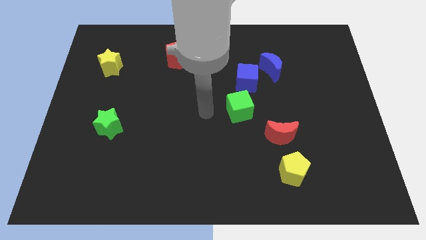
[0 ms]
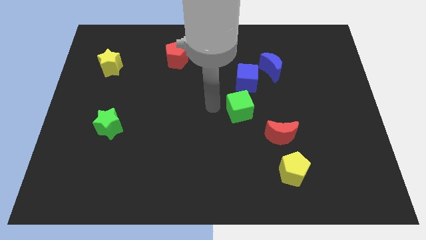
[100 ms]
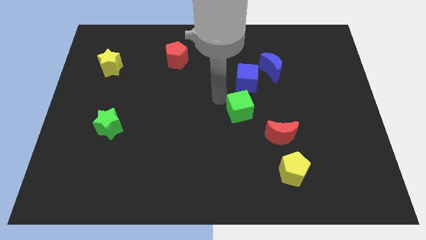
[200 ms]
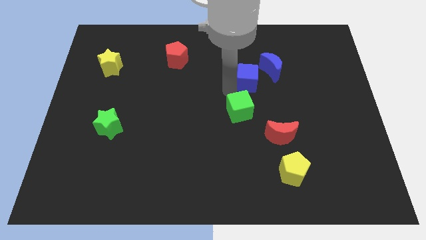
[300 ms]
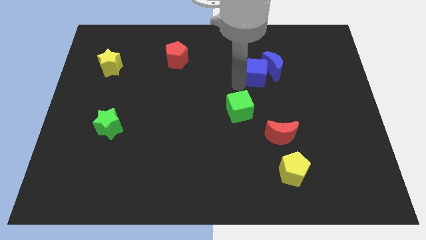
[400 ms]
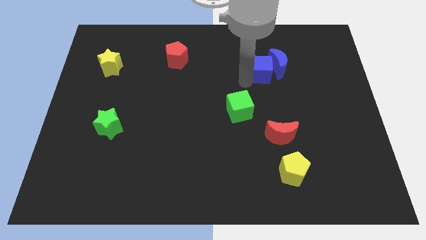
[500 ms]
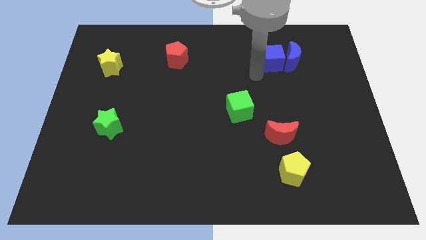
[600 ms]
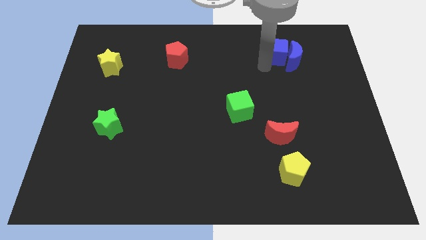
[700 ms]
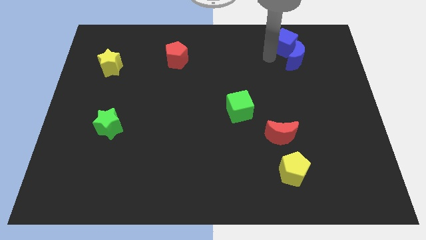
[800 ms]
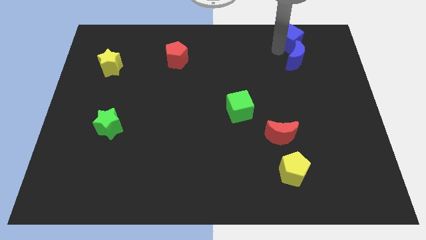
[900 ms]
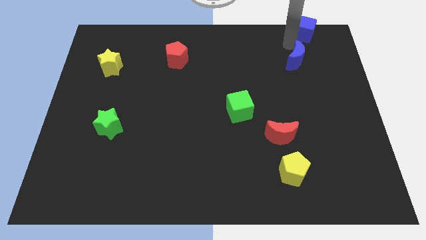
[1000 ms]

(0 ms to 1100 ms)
move the blue moon away from the blue cube

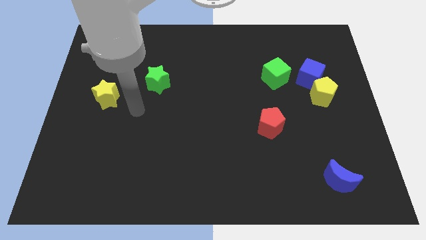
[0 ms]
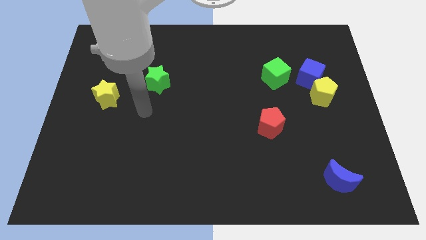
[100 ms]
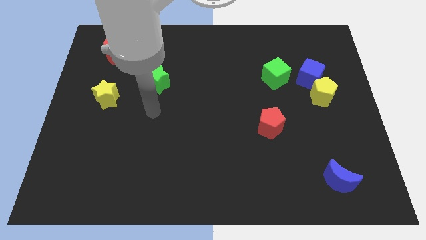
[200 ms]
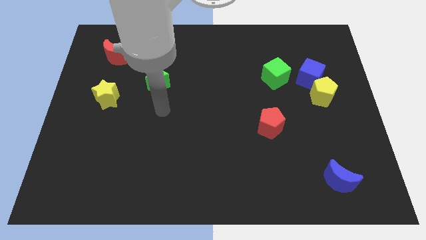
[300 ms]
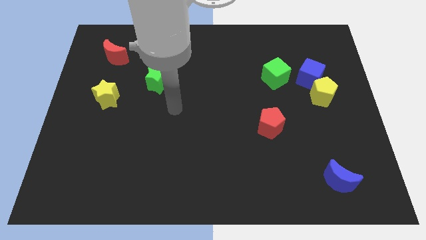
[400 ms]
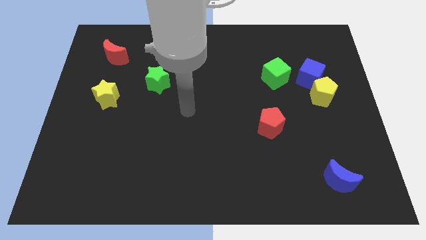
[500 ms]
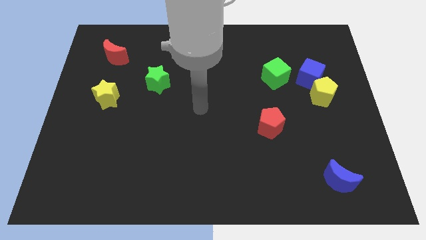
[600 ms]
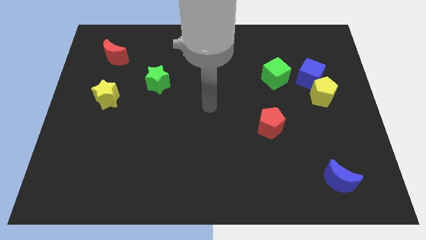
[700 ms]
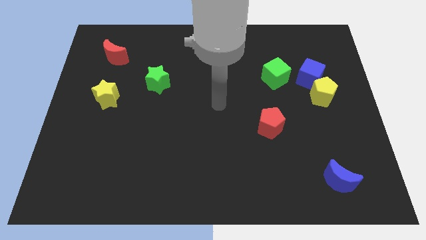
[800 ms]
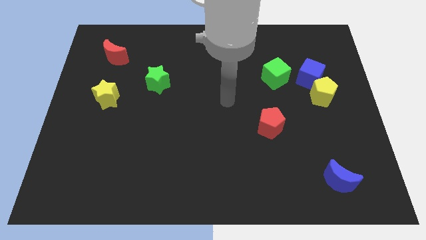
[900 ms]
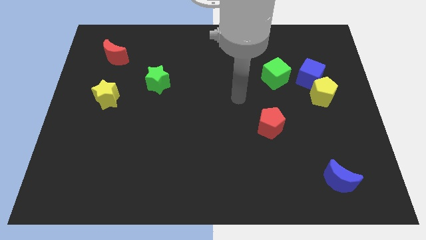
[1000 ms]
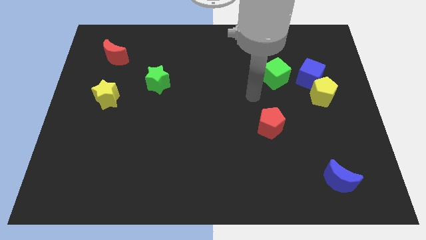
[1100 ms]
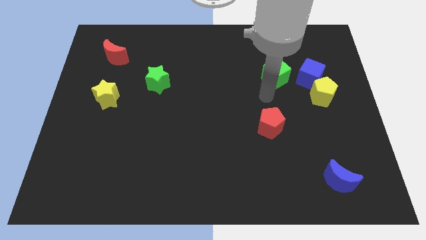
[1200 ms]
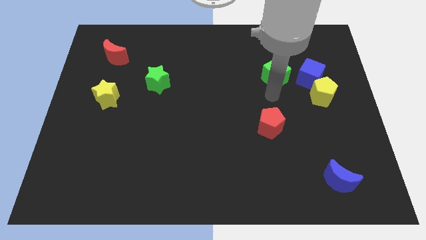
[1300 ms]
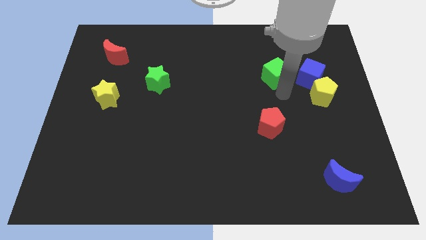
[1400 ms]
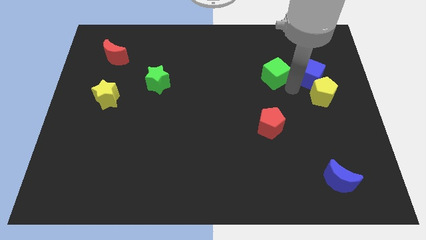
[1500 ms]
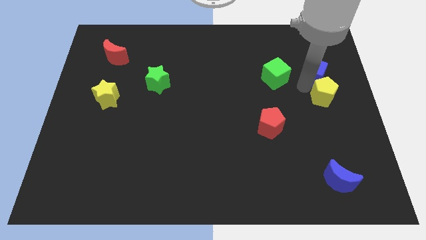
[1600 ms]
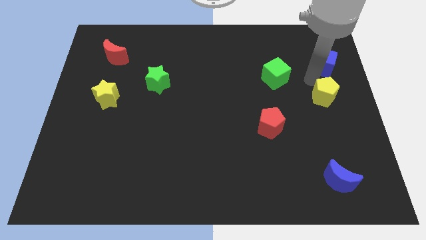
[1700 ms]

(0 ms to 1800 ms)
move the yellow pentagon away from the blue cube

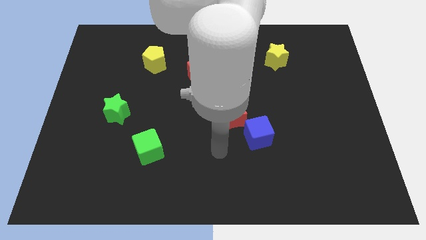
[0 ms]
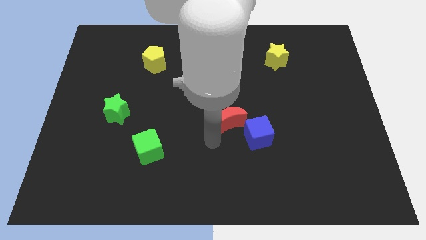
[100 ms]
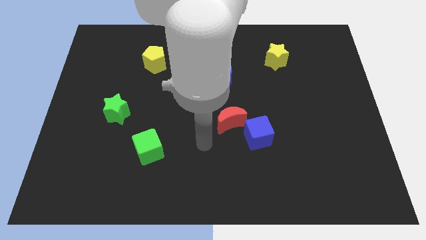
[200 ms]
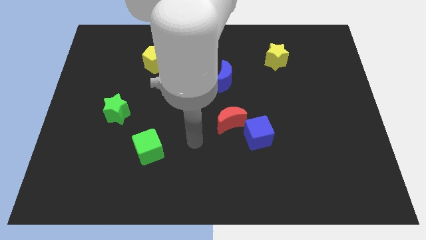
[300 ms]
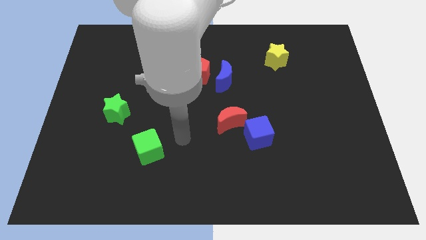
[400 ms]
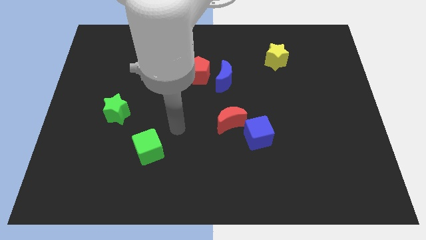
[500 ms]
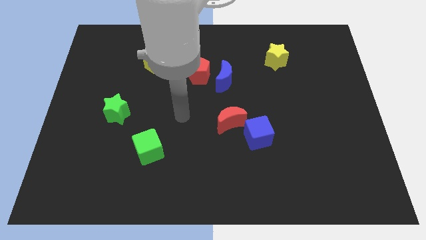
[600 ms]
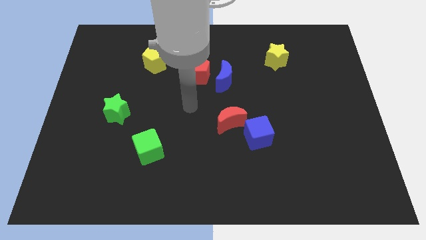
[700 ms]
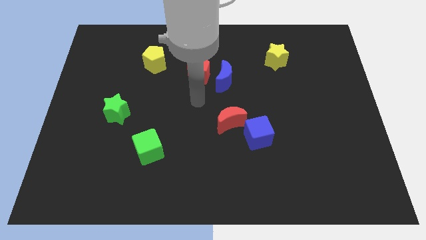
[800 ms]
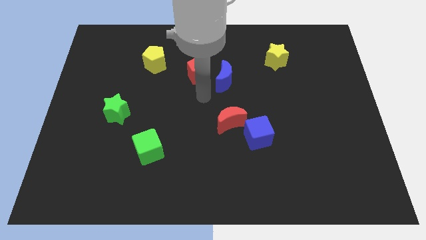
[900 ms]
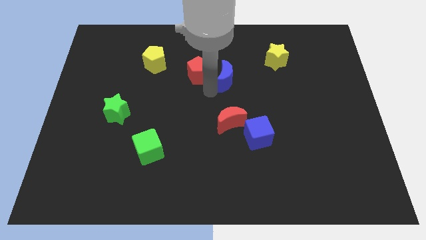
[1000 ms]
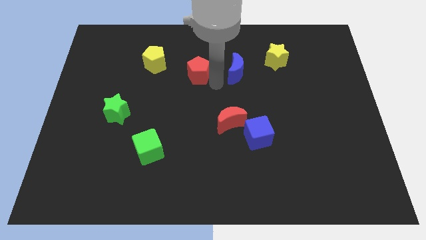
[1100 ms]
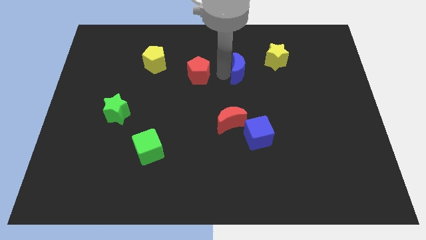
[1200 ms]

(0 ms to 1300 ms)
move the red pentagon away from the blue moon

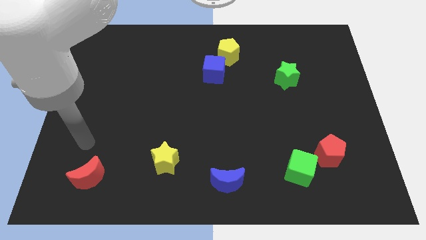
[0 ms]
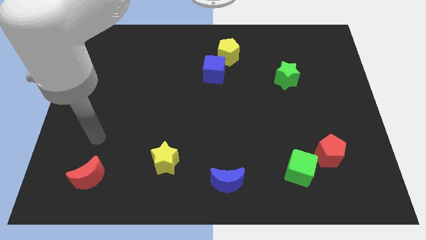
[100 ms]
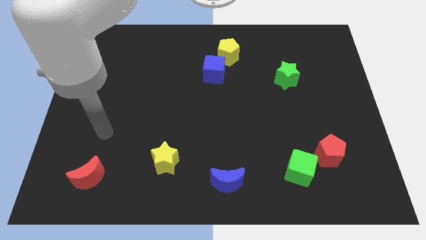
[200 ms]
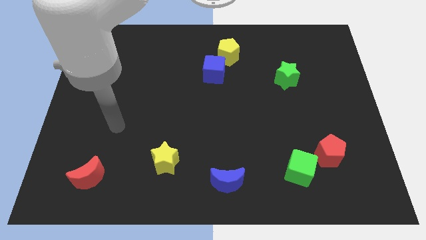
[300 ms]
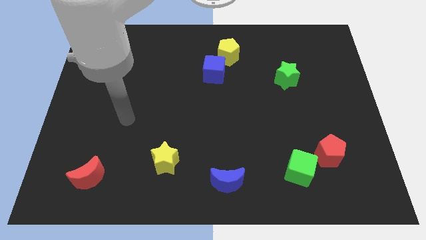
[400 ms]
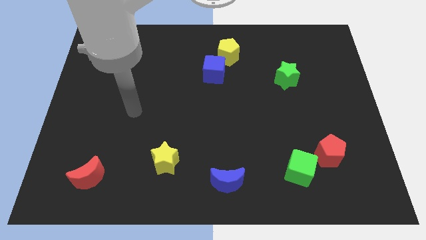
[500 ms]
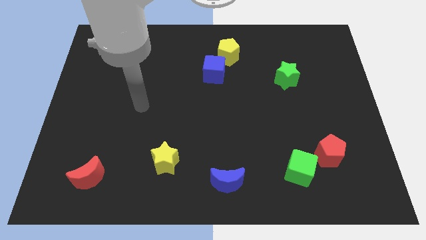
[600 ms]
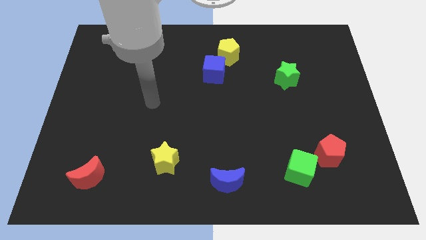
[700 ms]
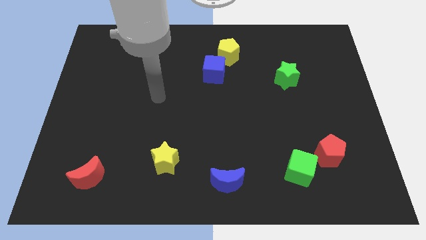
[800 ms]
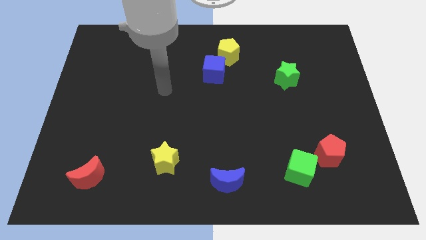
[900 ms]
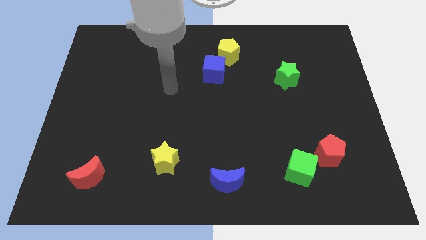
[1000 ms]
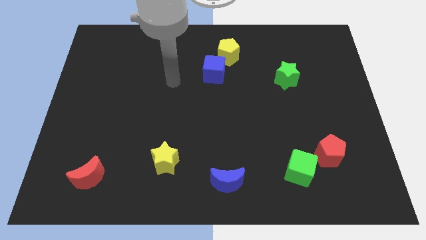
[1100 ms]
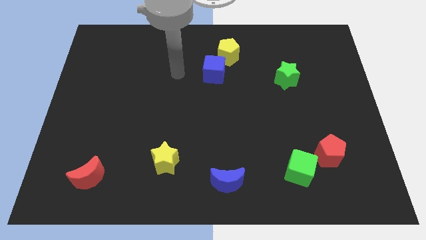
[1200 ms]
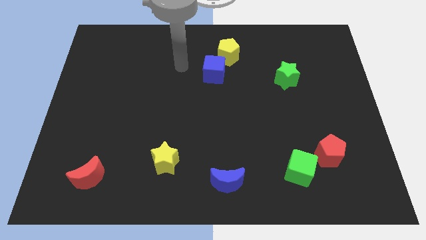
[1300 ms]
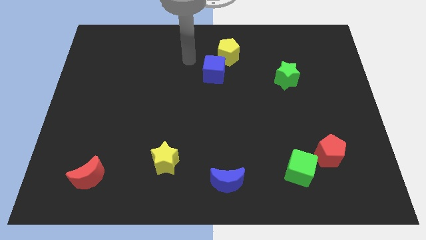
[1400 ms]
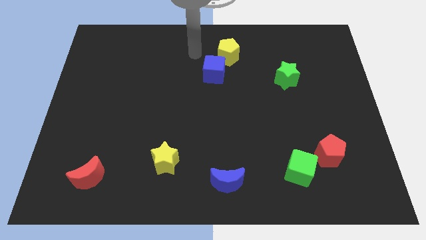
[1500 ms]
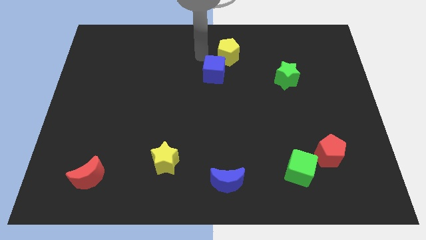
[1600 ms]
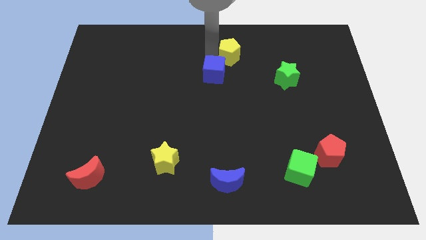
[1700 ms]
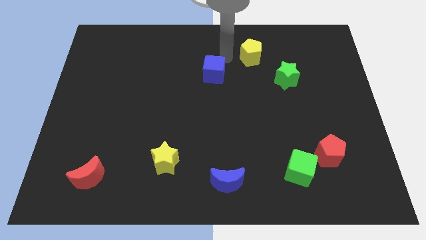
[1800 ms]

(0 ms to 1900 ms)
separate the blue cube from the yellow pentagon

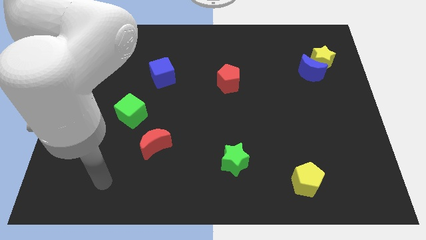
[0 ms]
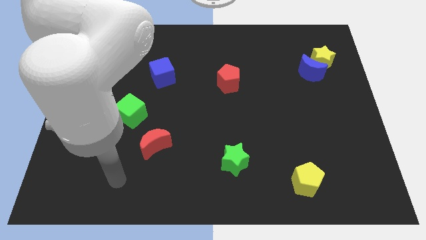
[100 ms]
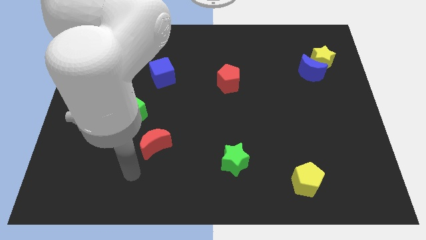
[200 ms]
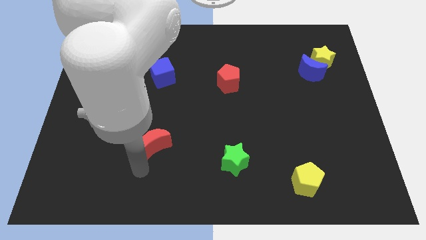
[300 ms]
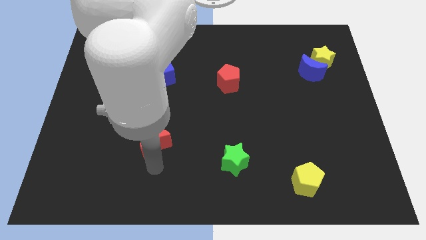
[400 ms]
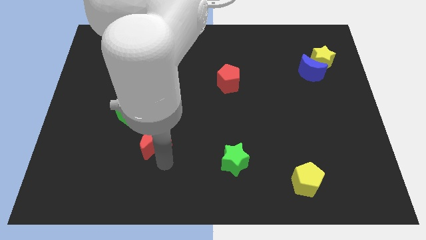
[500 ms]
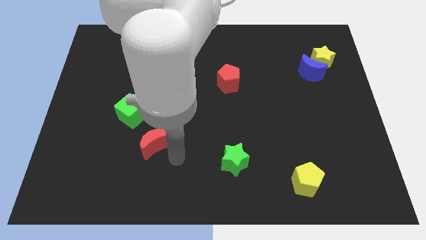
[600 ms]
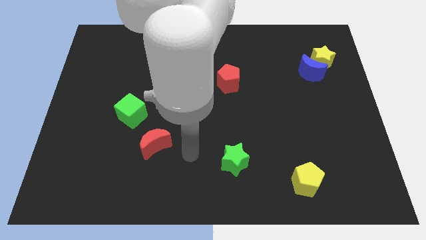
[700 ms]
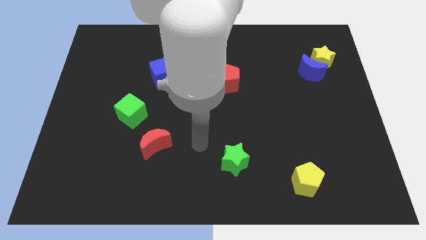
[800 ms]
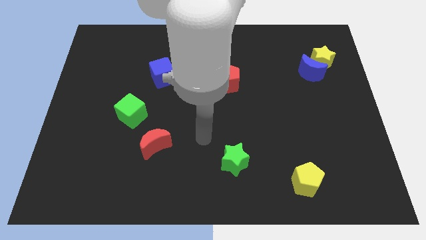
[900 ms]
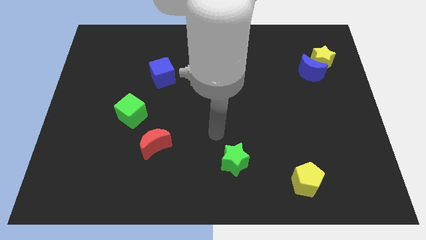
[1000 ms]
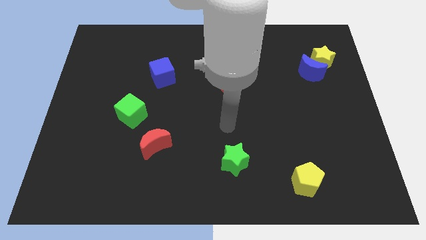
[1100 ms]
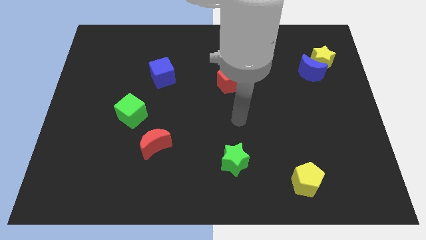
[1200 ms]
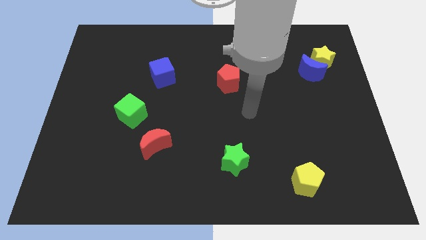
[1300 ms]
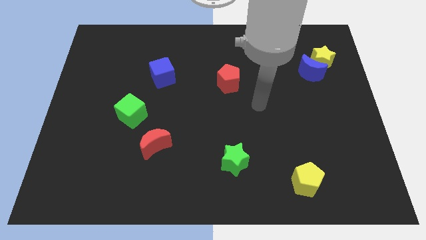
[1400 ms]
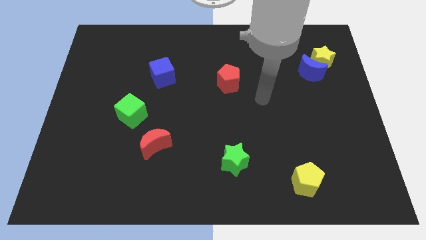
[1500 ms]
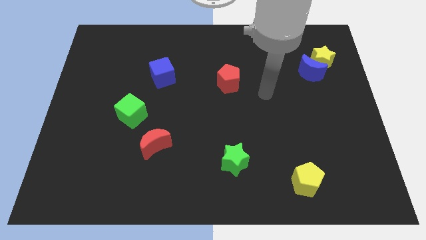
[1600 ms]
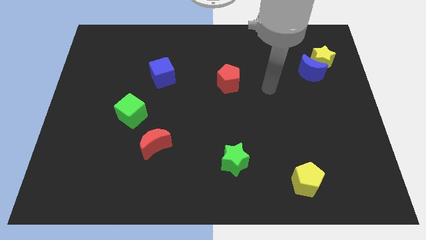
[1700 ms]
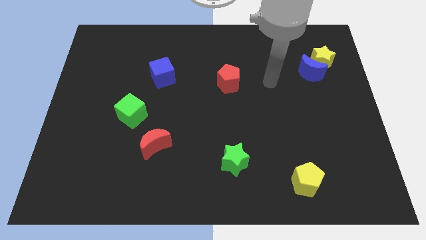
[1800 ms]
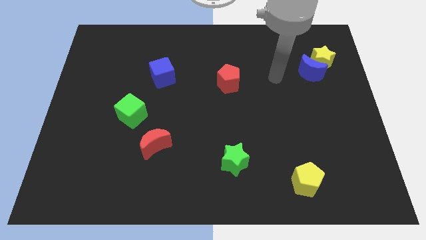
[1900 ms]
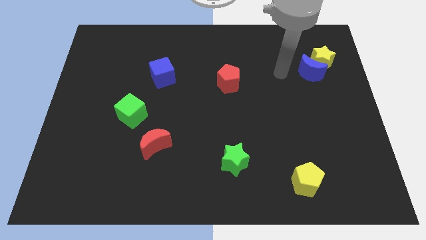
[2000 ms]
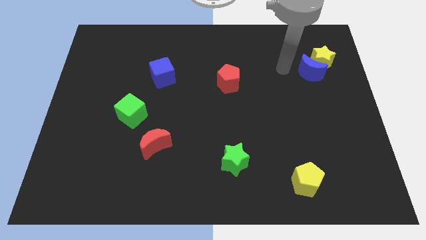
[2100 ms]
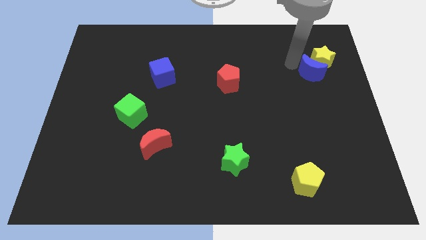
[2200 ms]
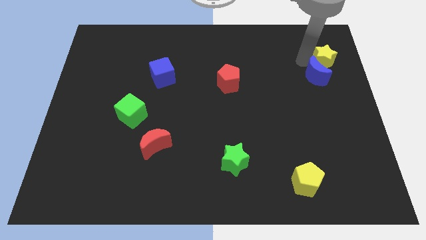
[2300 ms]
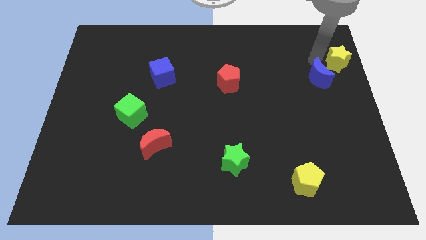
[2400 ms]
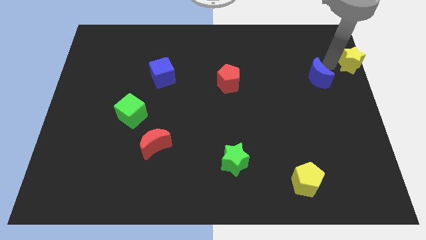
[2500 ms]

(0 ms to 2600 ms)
pull the blue moon apart from the yellow star

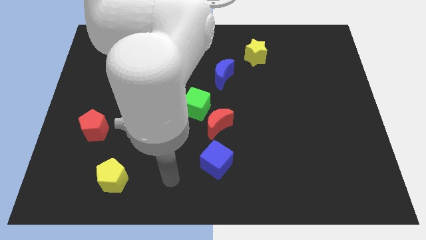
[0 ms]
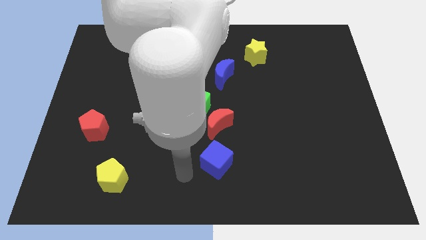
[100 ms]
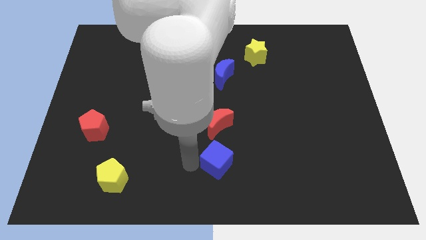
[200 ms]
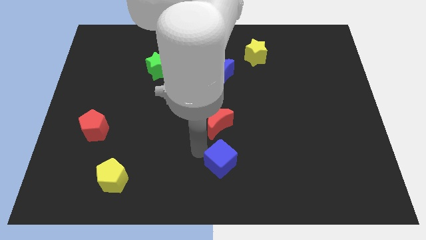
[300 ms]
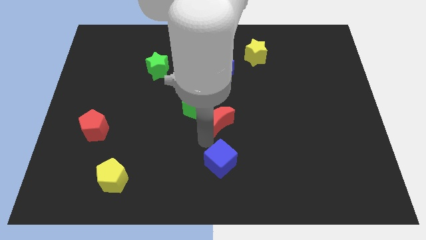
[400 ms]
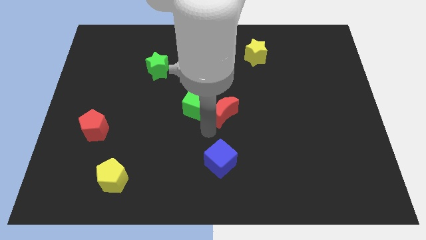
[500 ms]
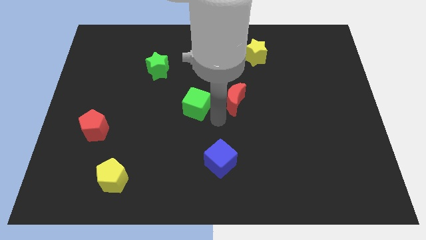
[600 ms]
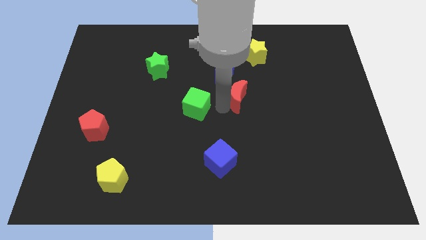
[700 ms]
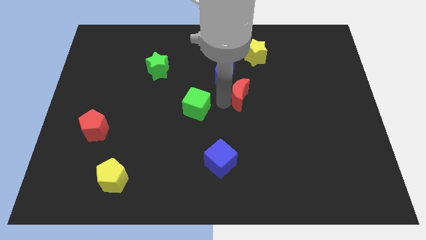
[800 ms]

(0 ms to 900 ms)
separate the green cube from the red moon
